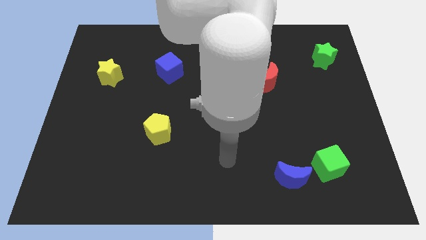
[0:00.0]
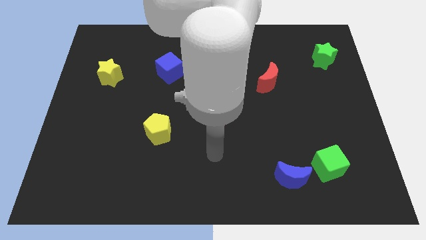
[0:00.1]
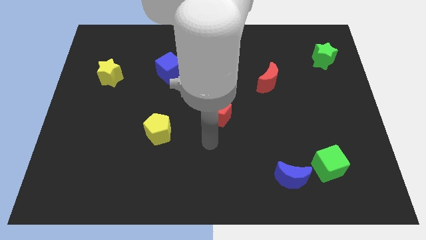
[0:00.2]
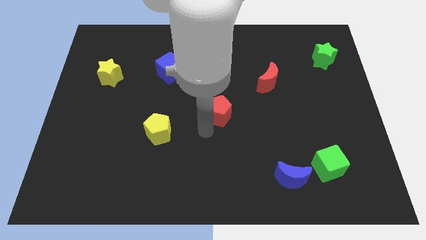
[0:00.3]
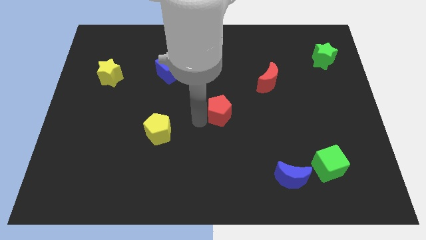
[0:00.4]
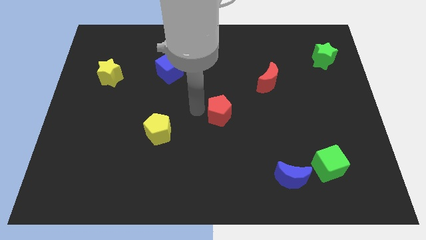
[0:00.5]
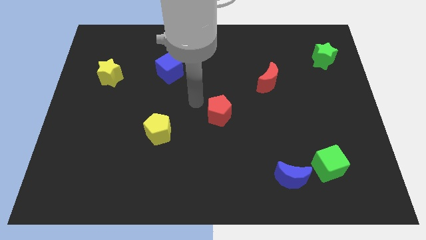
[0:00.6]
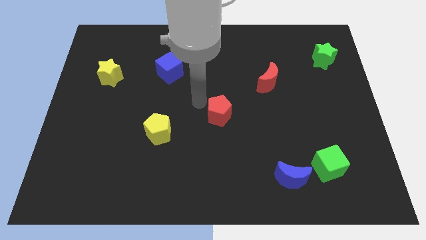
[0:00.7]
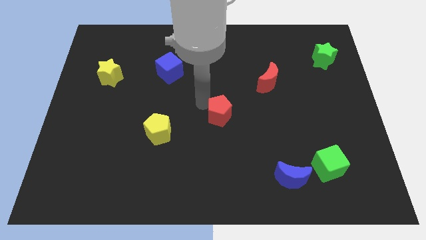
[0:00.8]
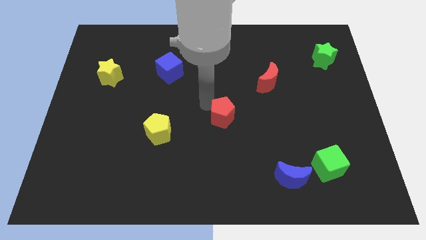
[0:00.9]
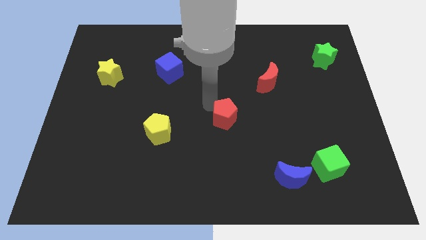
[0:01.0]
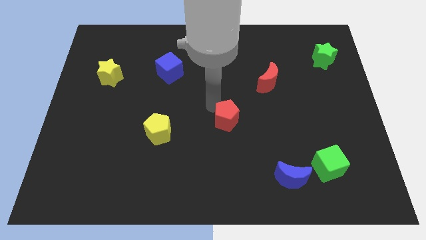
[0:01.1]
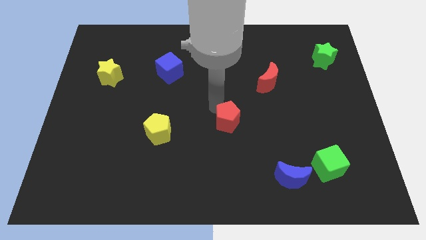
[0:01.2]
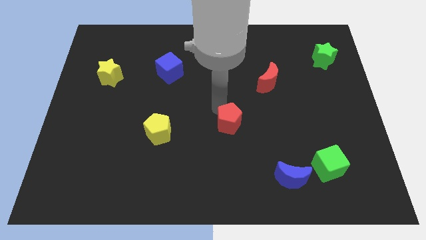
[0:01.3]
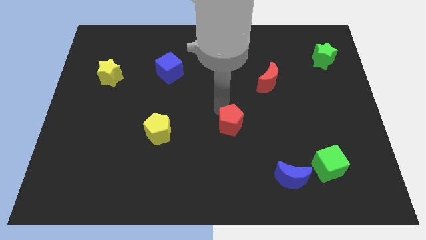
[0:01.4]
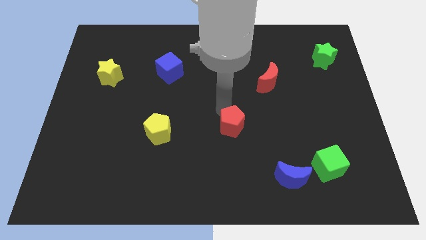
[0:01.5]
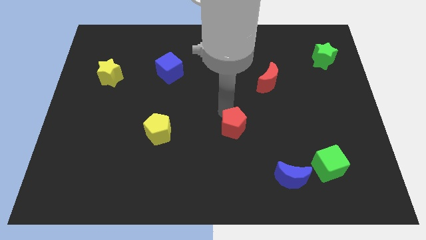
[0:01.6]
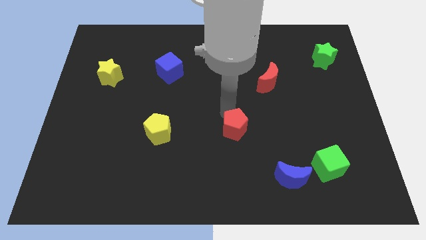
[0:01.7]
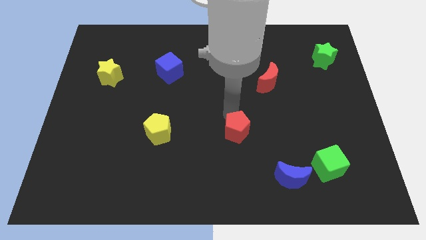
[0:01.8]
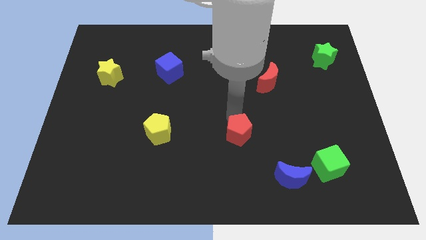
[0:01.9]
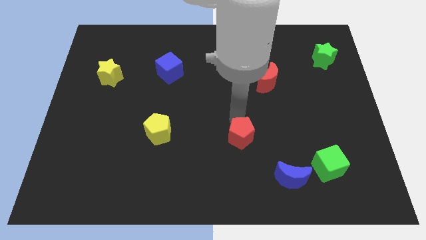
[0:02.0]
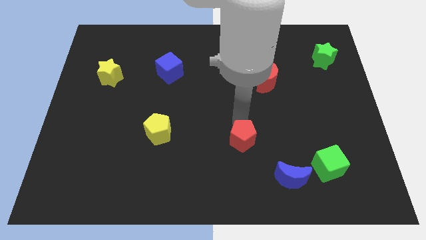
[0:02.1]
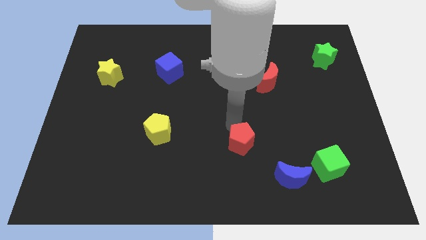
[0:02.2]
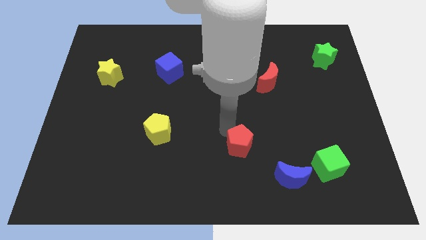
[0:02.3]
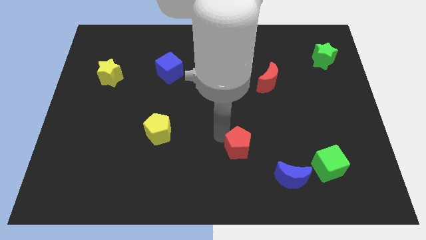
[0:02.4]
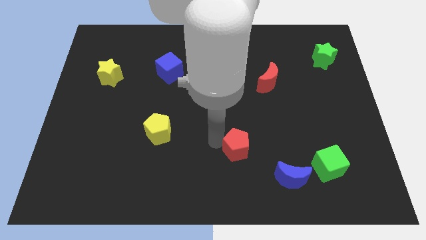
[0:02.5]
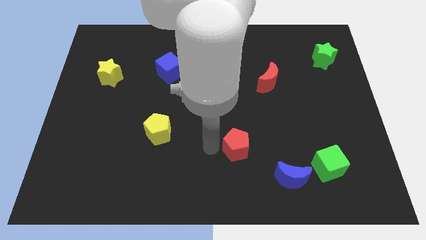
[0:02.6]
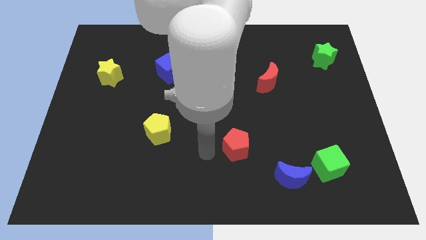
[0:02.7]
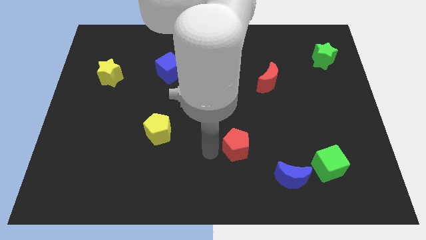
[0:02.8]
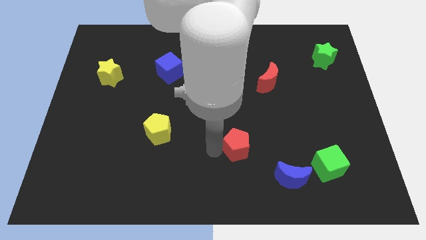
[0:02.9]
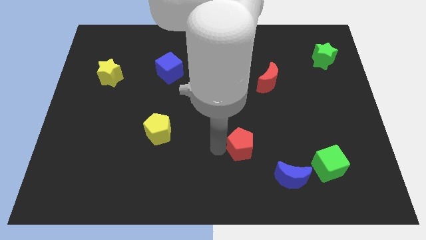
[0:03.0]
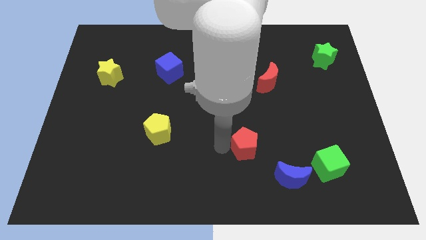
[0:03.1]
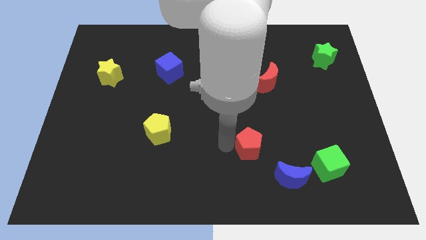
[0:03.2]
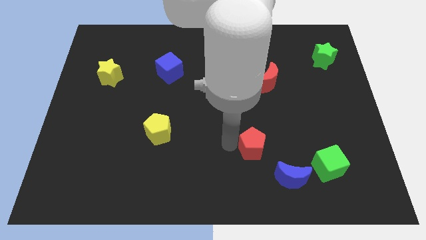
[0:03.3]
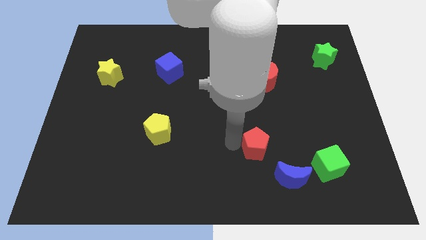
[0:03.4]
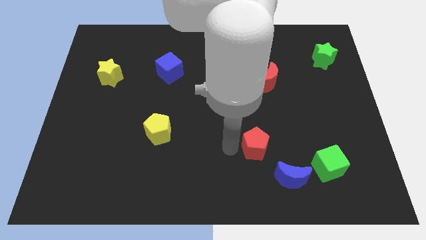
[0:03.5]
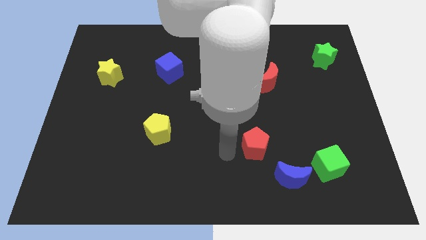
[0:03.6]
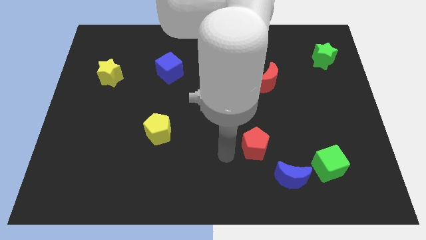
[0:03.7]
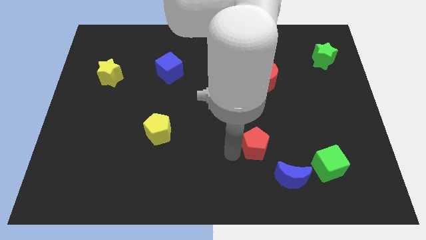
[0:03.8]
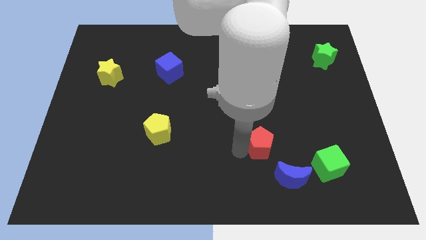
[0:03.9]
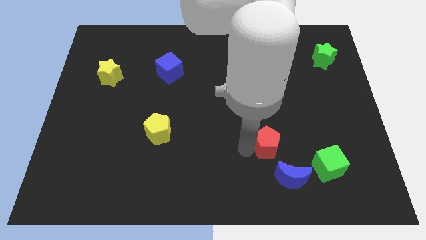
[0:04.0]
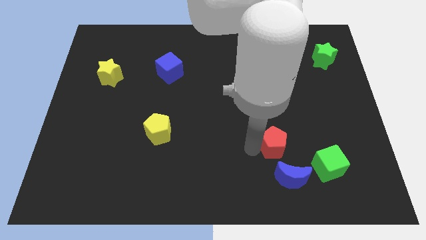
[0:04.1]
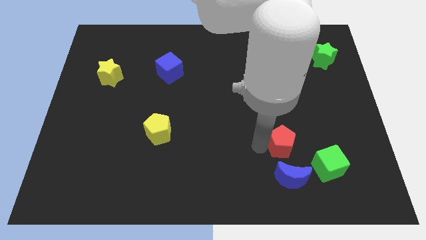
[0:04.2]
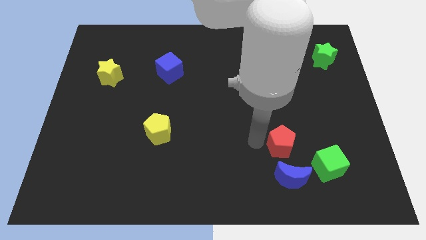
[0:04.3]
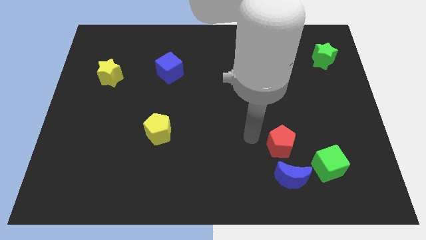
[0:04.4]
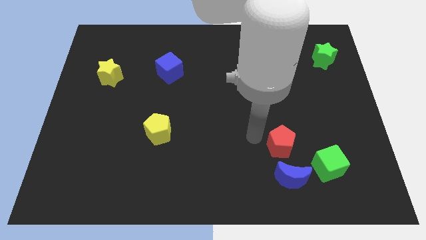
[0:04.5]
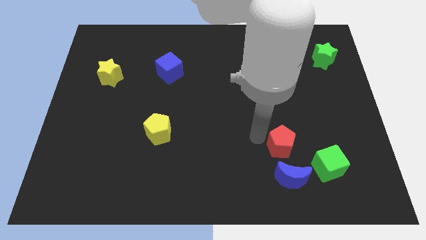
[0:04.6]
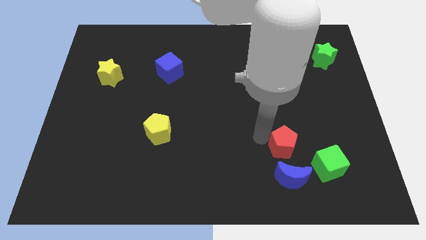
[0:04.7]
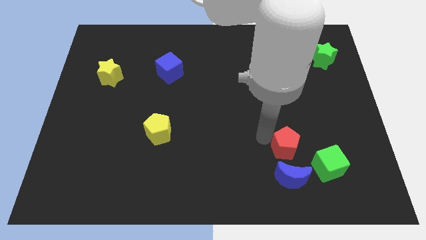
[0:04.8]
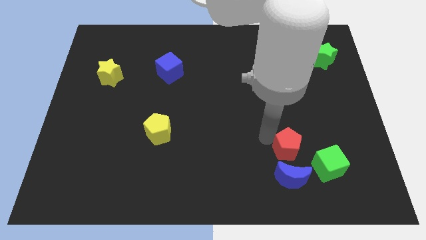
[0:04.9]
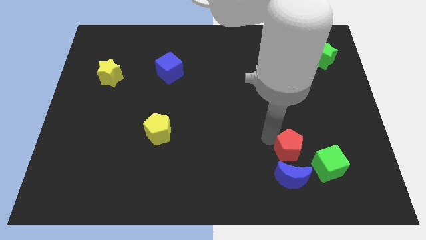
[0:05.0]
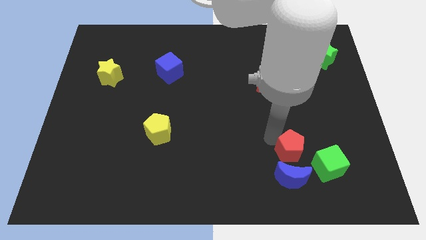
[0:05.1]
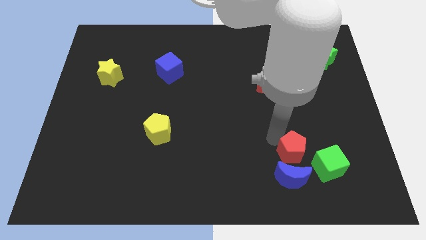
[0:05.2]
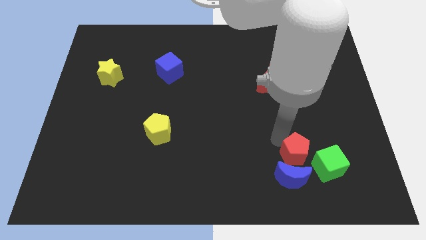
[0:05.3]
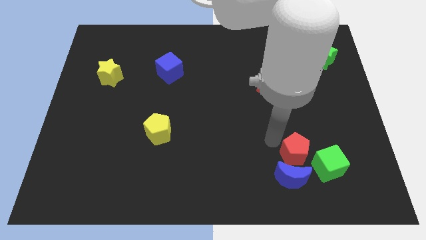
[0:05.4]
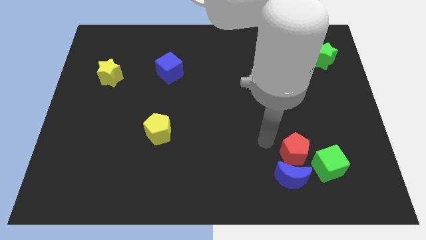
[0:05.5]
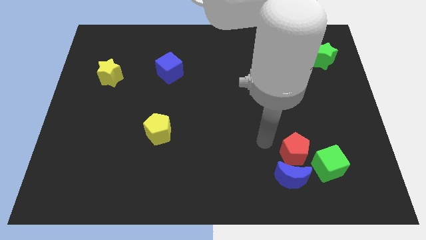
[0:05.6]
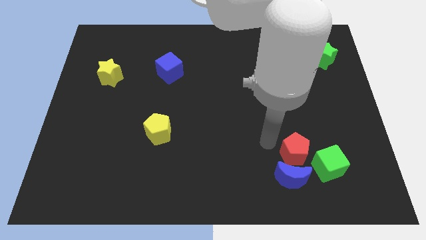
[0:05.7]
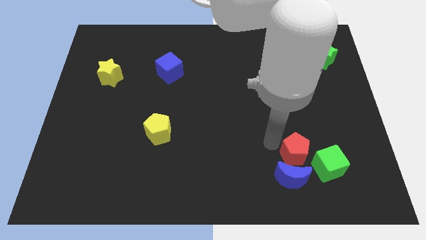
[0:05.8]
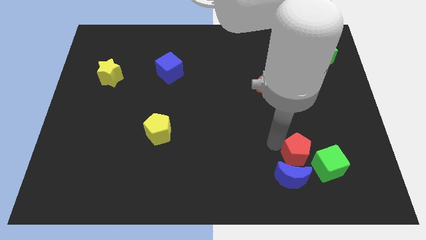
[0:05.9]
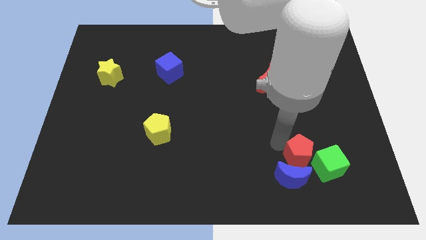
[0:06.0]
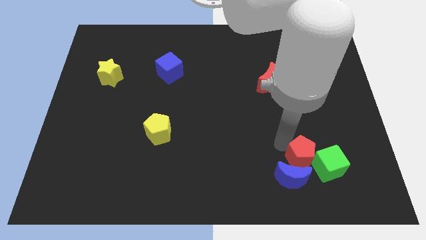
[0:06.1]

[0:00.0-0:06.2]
slide the red pentagon next to the green cube

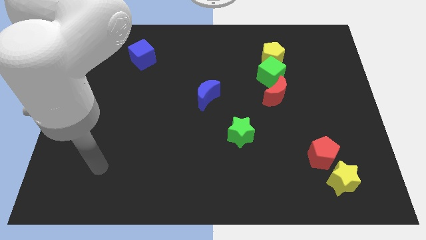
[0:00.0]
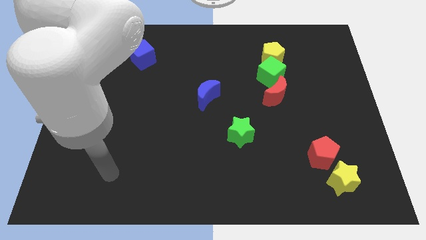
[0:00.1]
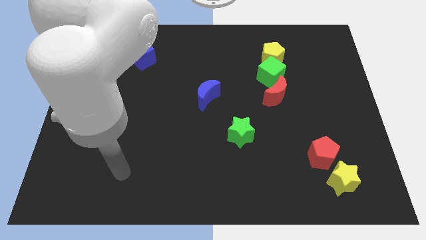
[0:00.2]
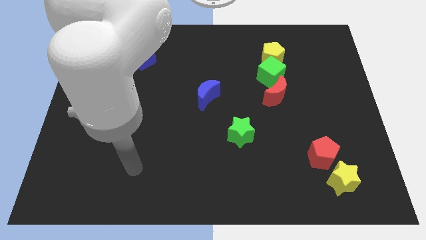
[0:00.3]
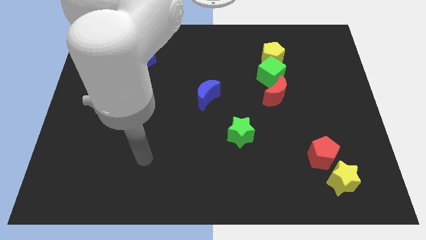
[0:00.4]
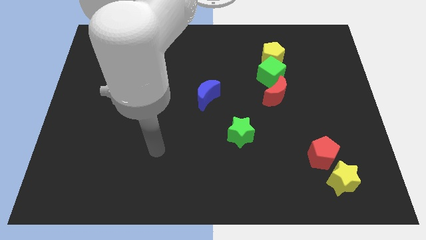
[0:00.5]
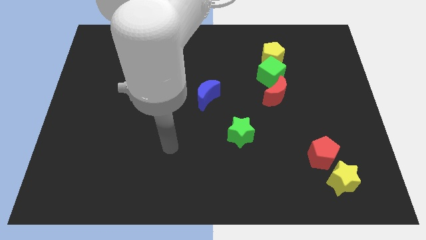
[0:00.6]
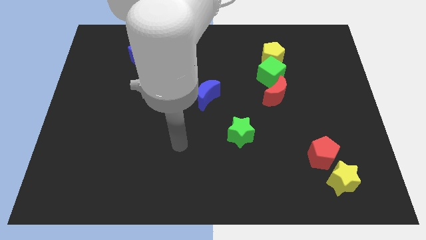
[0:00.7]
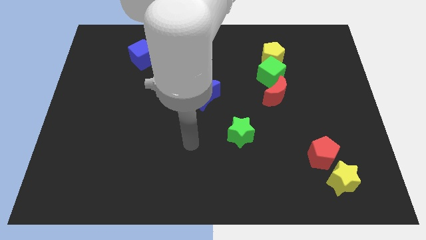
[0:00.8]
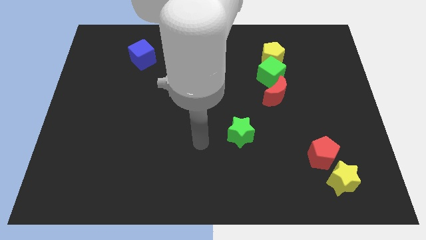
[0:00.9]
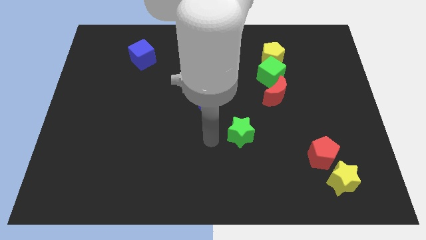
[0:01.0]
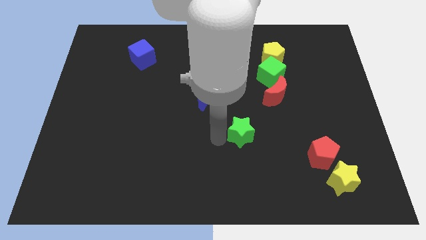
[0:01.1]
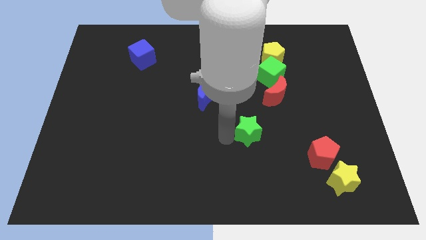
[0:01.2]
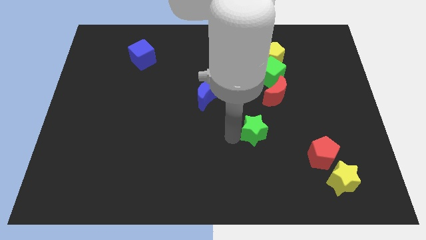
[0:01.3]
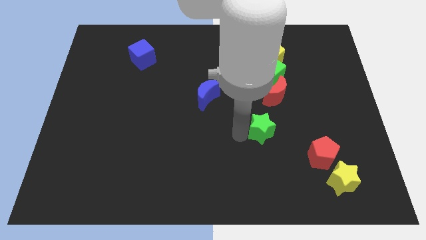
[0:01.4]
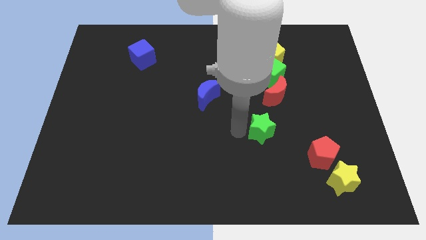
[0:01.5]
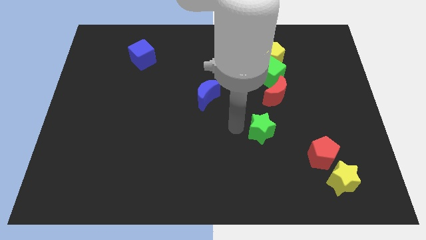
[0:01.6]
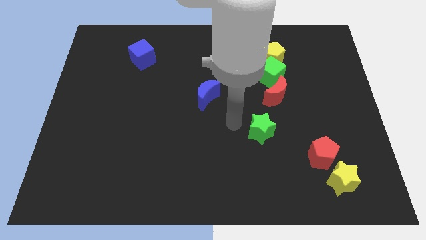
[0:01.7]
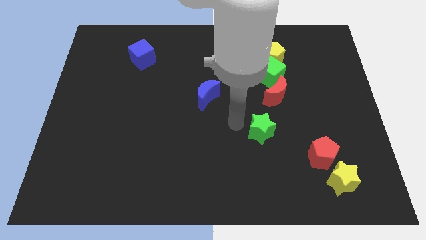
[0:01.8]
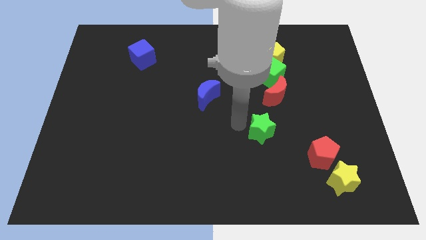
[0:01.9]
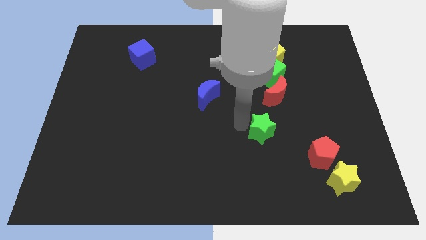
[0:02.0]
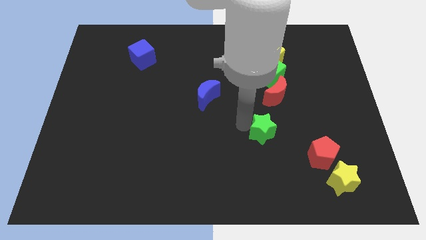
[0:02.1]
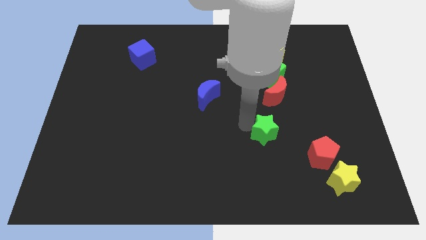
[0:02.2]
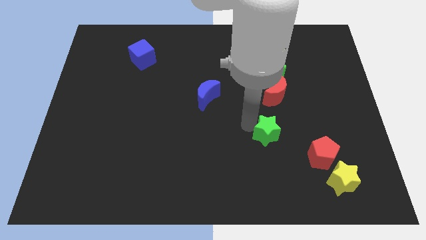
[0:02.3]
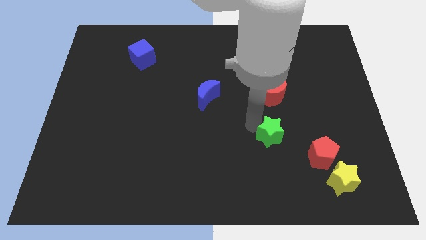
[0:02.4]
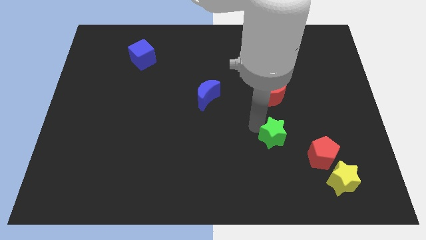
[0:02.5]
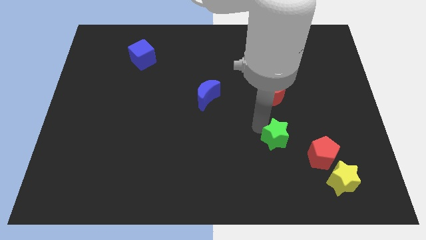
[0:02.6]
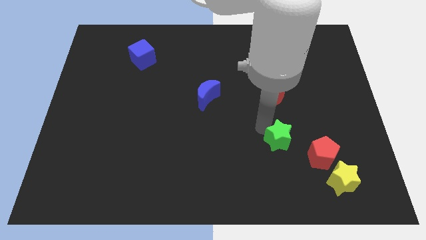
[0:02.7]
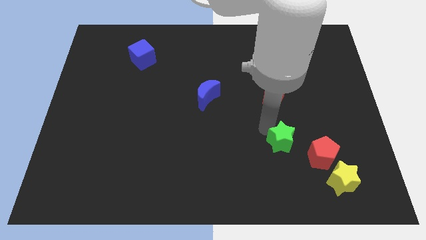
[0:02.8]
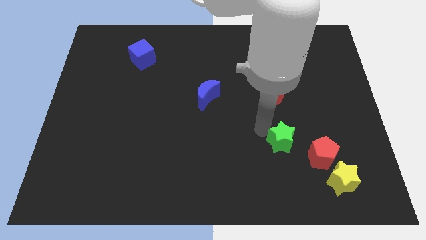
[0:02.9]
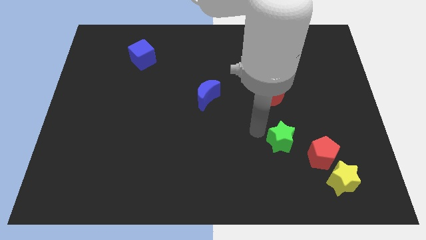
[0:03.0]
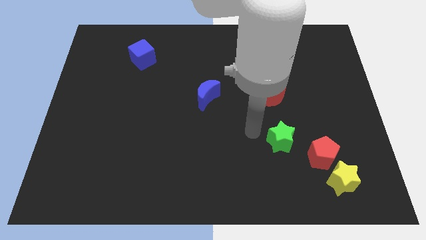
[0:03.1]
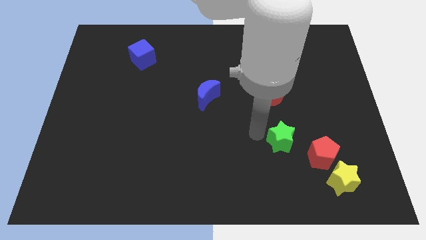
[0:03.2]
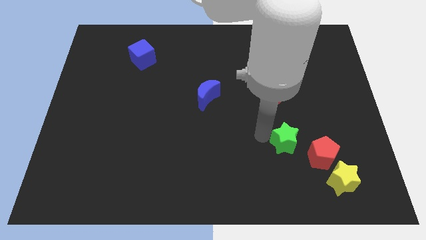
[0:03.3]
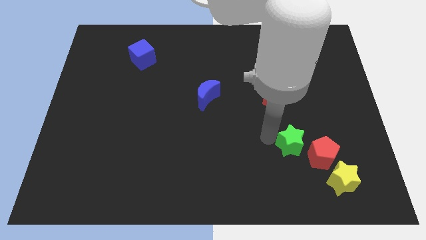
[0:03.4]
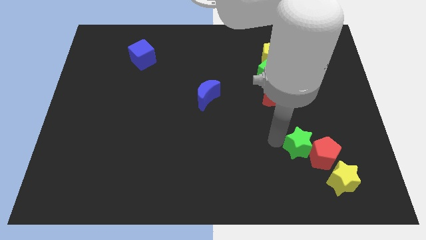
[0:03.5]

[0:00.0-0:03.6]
push the green star towards the red pentagon
